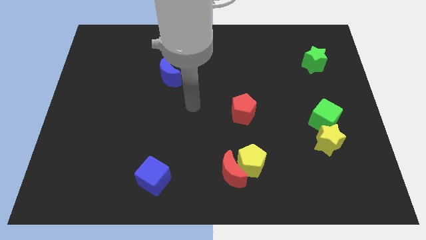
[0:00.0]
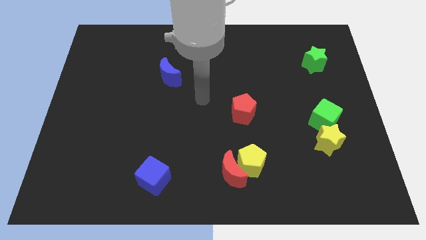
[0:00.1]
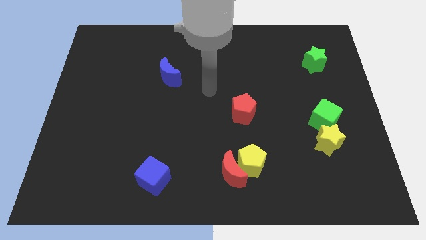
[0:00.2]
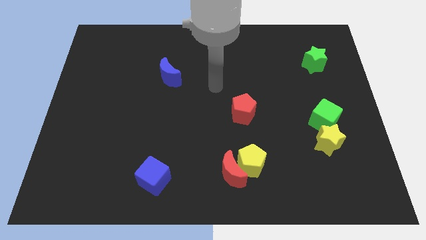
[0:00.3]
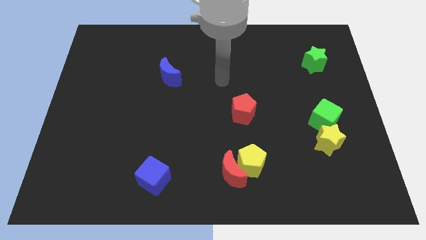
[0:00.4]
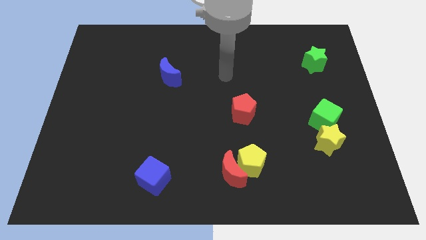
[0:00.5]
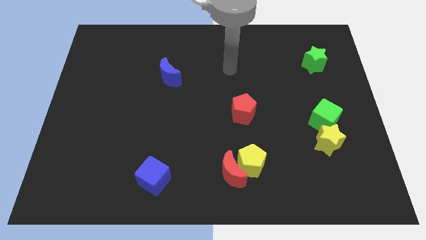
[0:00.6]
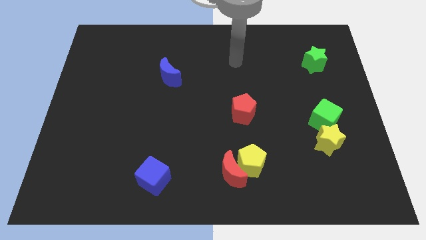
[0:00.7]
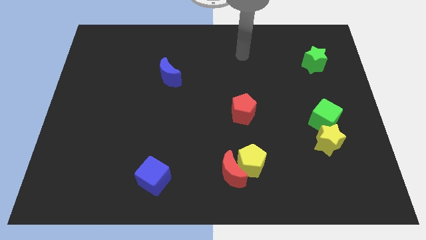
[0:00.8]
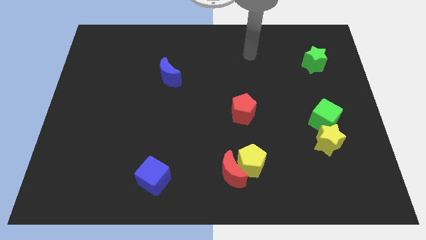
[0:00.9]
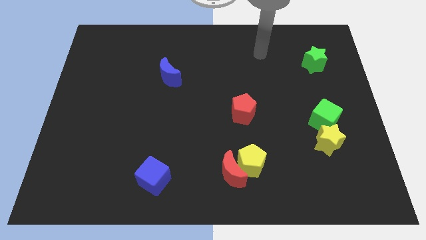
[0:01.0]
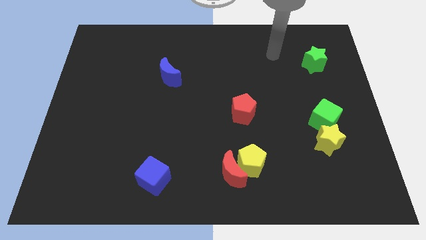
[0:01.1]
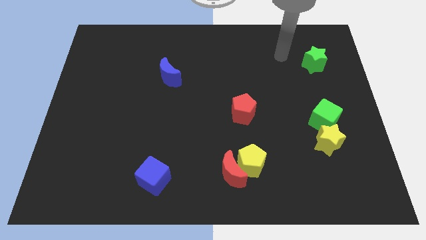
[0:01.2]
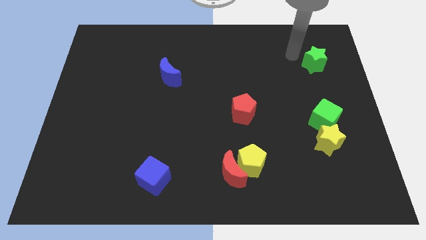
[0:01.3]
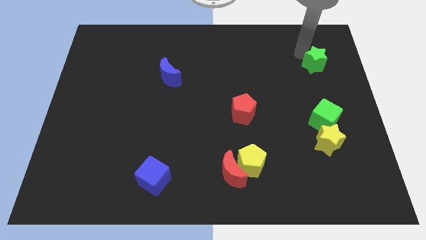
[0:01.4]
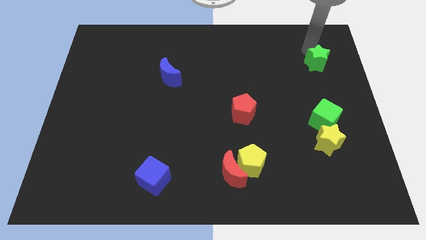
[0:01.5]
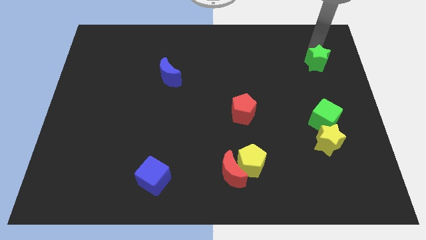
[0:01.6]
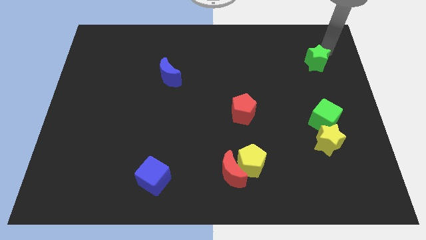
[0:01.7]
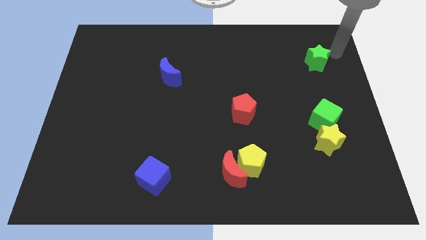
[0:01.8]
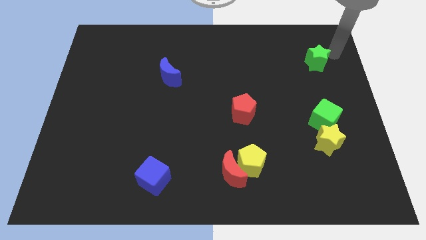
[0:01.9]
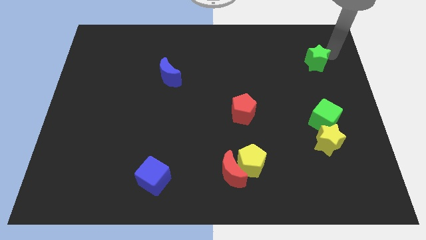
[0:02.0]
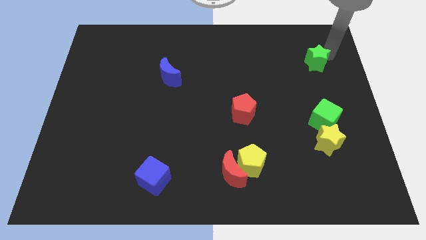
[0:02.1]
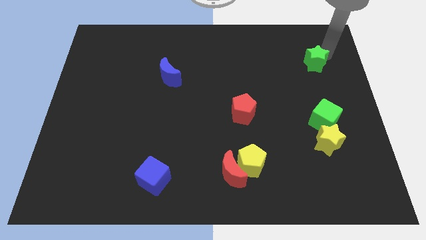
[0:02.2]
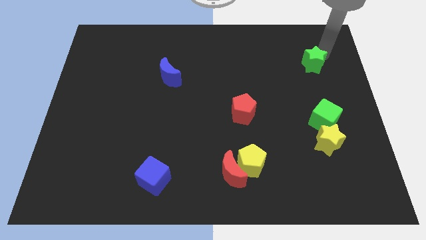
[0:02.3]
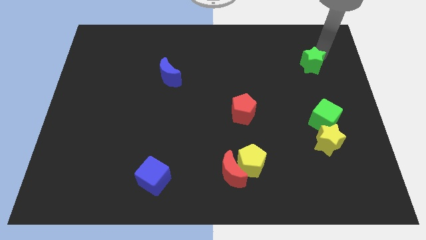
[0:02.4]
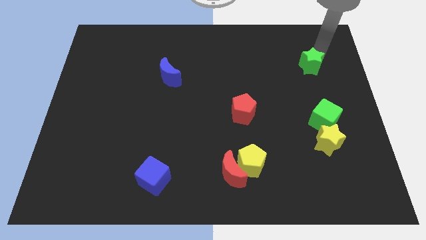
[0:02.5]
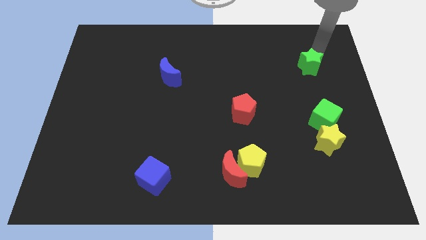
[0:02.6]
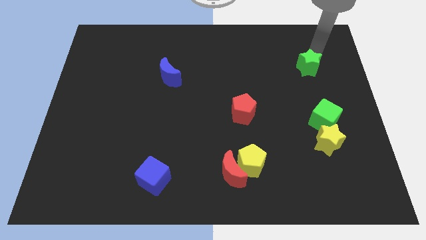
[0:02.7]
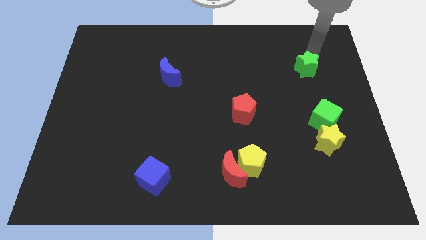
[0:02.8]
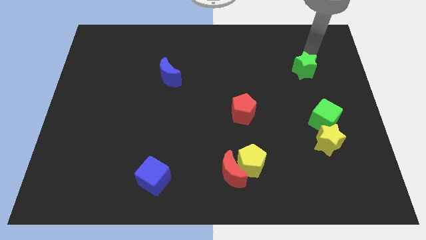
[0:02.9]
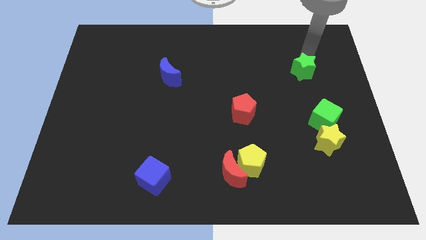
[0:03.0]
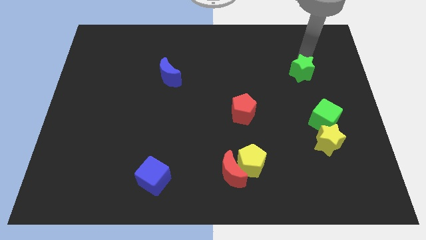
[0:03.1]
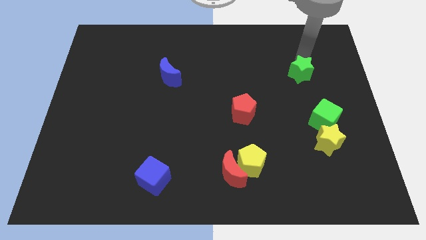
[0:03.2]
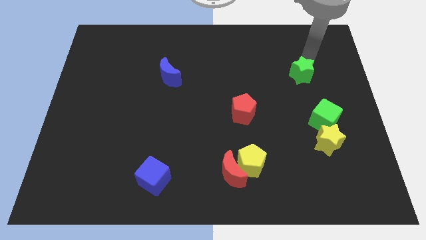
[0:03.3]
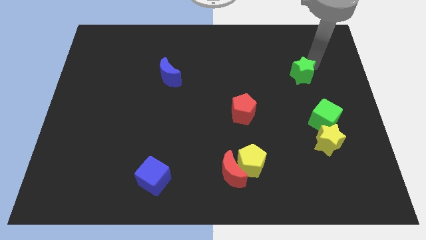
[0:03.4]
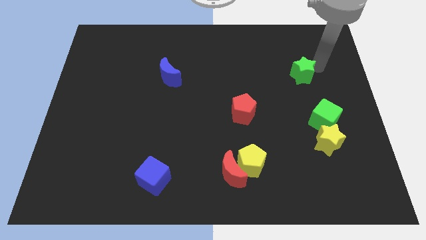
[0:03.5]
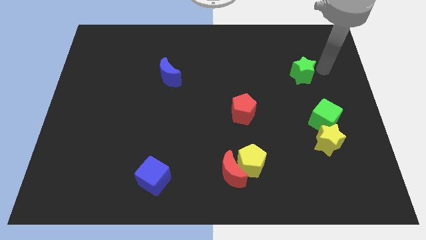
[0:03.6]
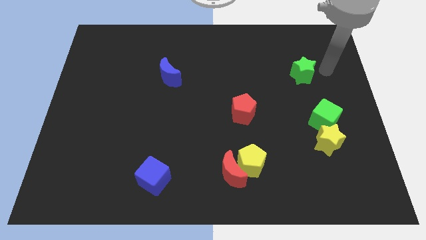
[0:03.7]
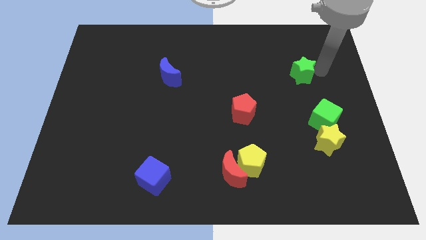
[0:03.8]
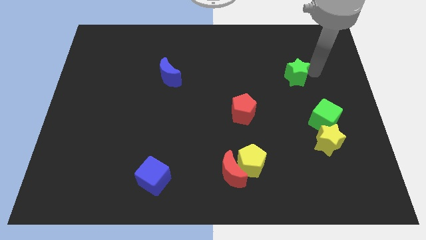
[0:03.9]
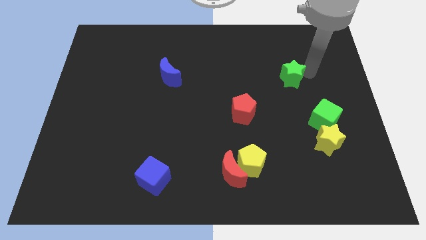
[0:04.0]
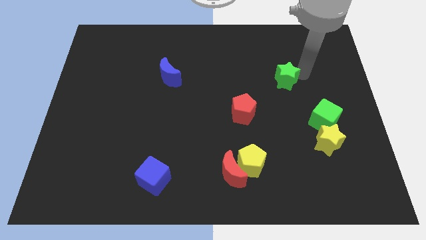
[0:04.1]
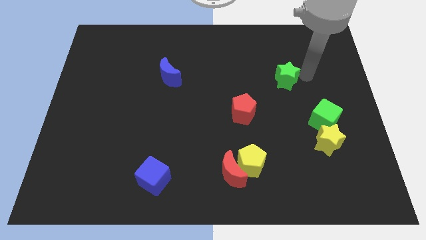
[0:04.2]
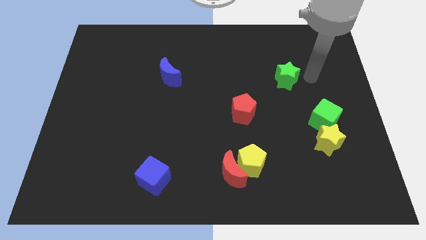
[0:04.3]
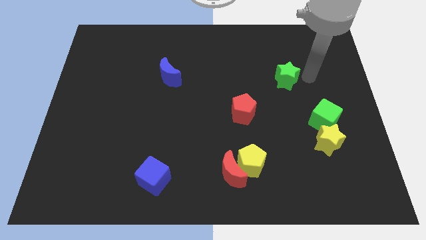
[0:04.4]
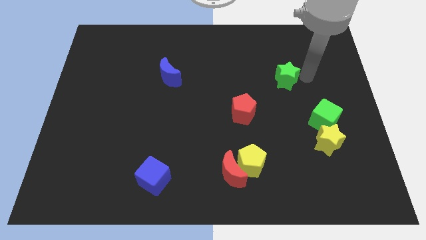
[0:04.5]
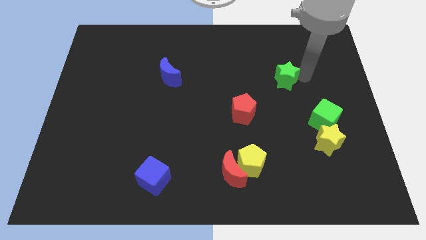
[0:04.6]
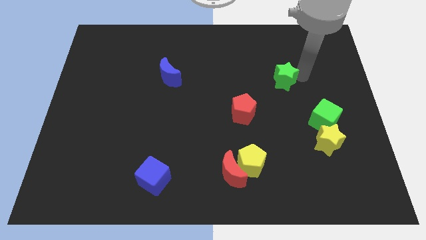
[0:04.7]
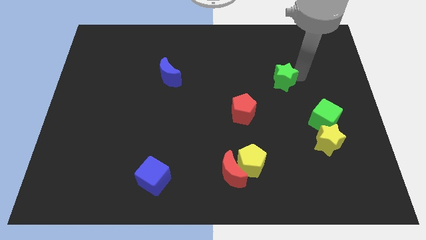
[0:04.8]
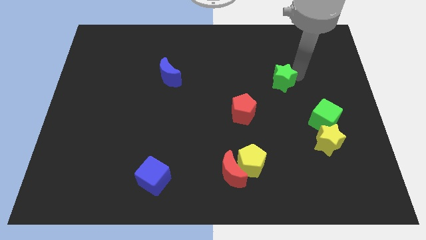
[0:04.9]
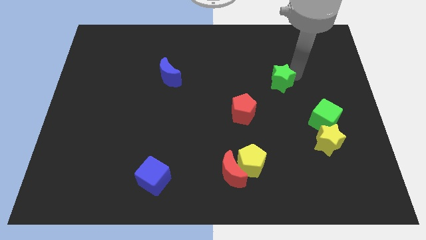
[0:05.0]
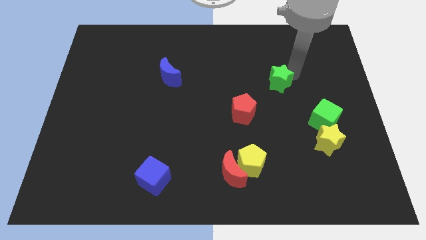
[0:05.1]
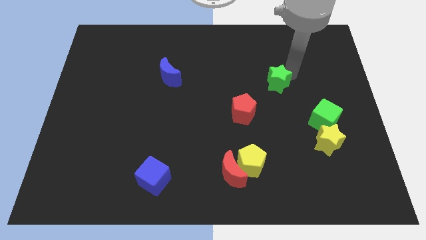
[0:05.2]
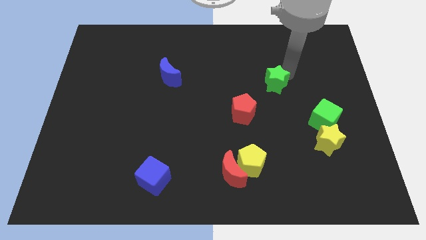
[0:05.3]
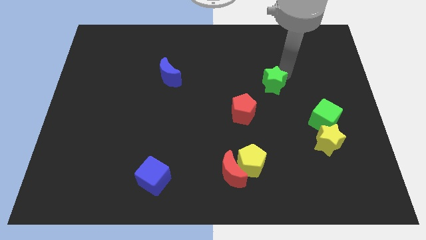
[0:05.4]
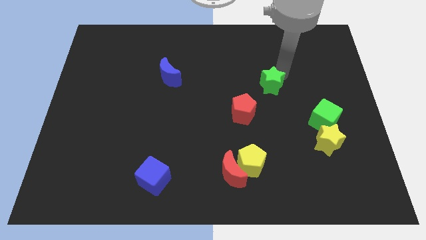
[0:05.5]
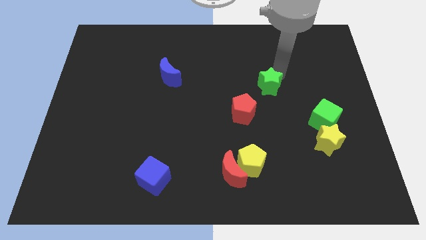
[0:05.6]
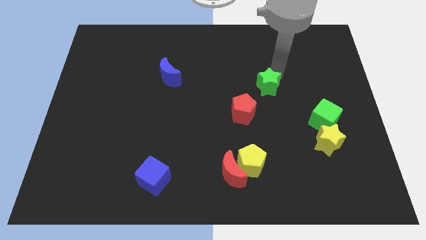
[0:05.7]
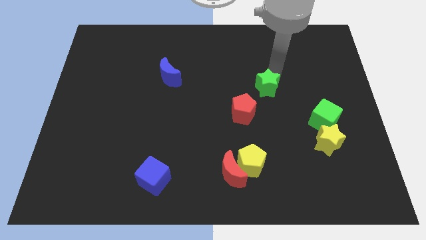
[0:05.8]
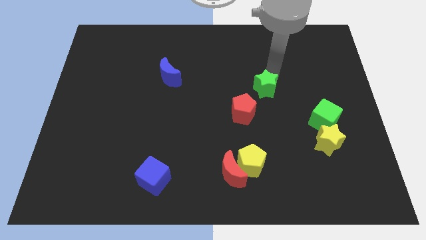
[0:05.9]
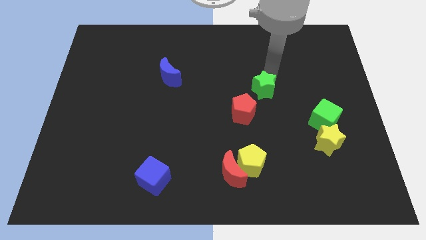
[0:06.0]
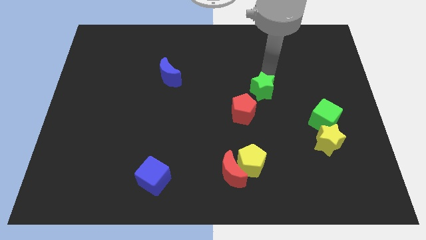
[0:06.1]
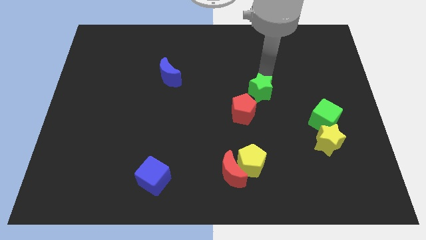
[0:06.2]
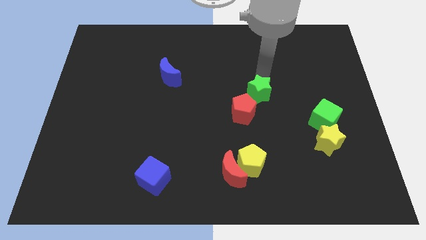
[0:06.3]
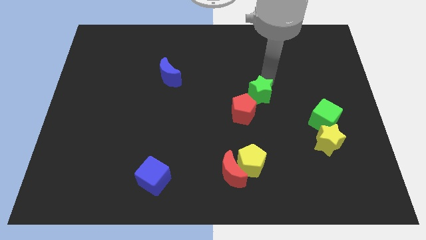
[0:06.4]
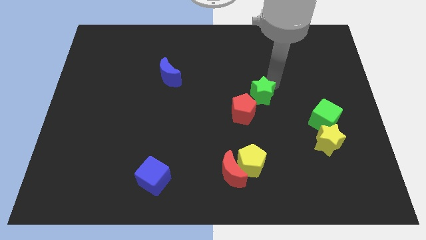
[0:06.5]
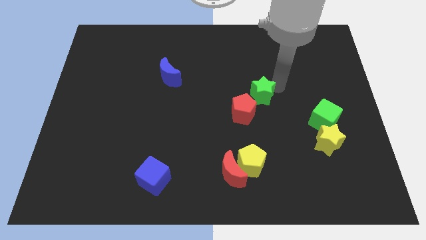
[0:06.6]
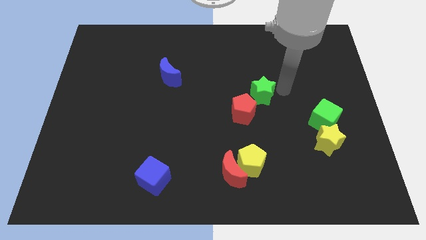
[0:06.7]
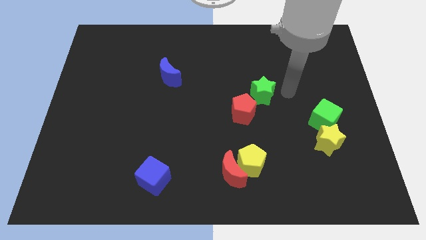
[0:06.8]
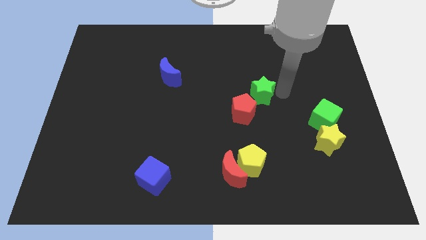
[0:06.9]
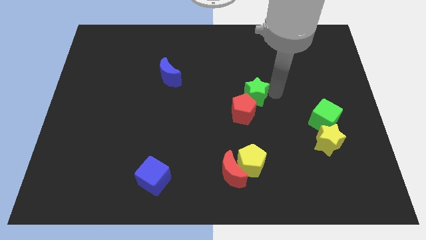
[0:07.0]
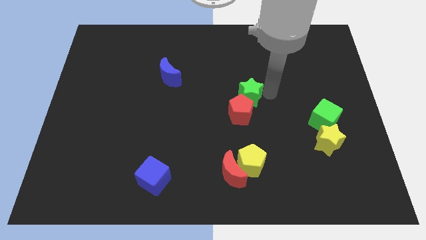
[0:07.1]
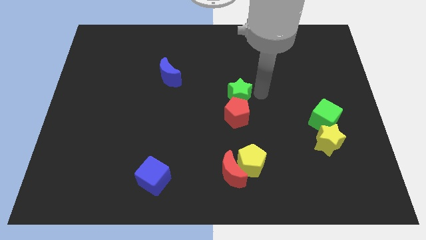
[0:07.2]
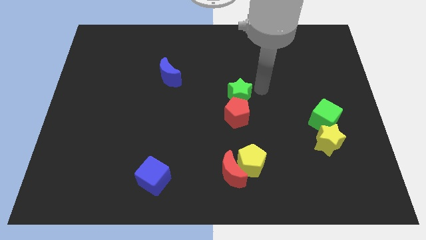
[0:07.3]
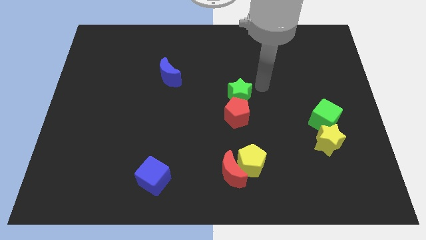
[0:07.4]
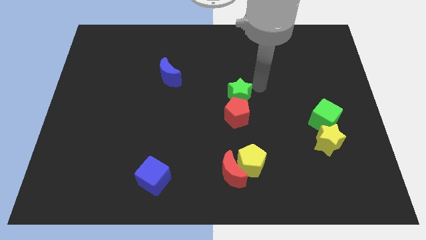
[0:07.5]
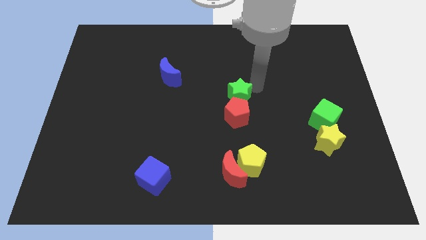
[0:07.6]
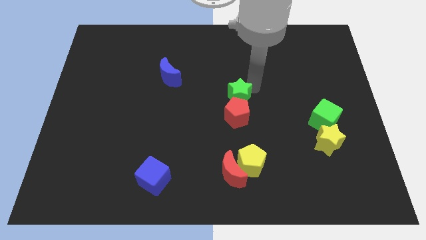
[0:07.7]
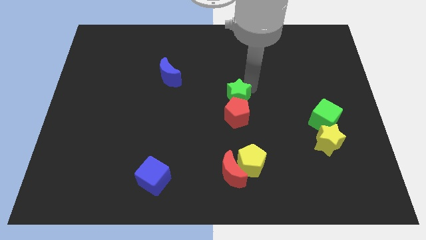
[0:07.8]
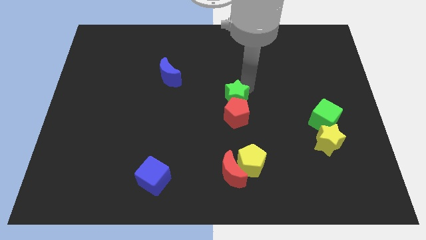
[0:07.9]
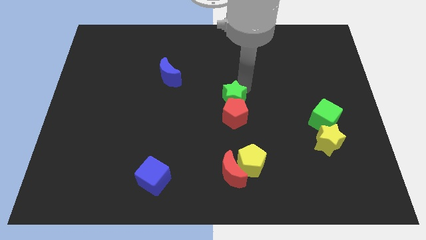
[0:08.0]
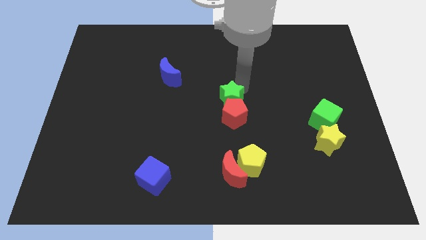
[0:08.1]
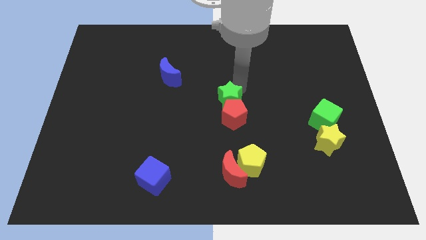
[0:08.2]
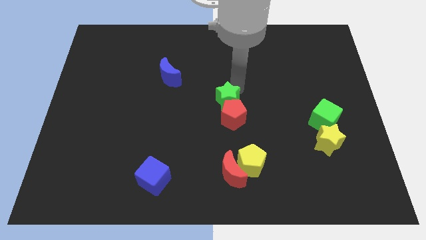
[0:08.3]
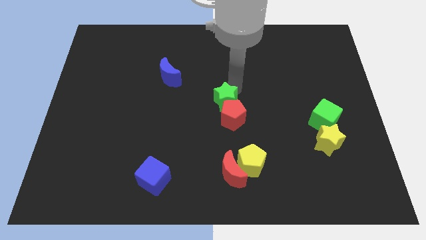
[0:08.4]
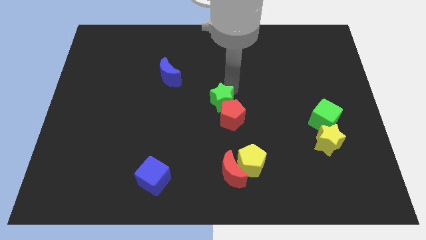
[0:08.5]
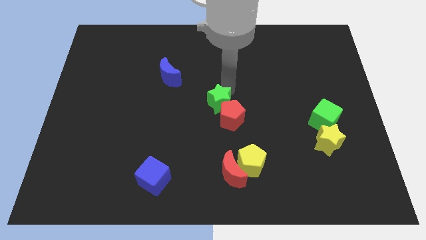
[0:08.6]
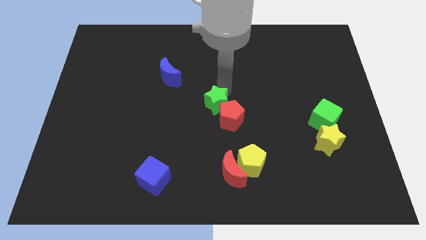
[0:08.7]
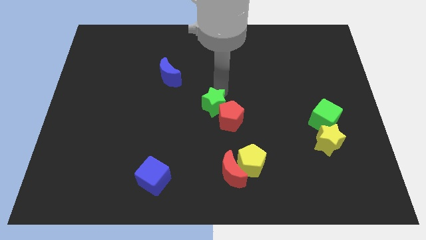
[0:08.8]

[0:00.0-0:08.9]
slide the green star left of the red pentagon
